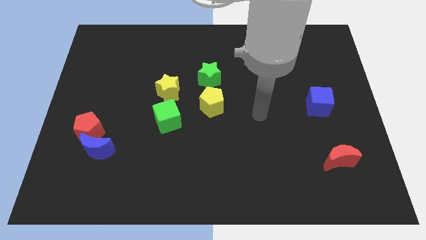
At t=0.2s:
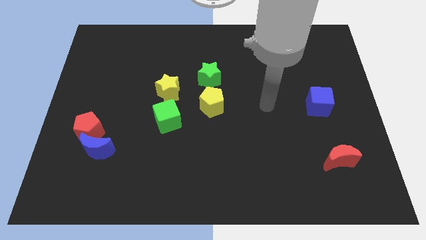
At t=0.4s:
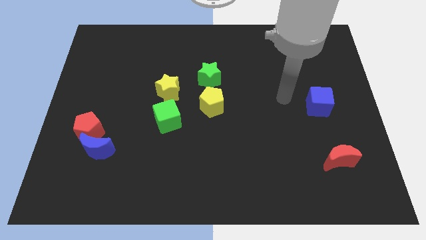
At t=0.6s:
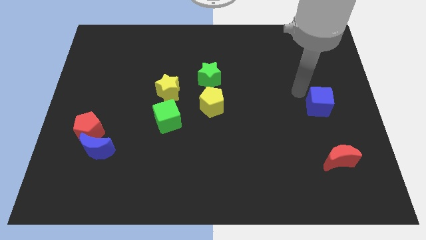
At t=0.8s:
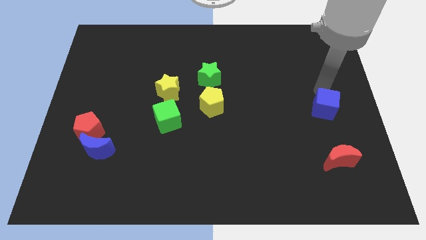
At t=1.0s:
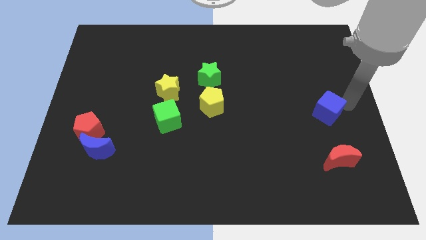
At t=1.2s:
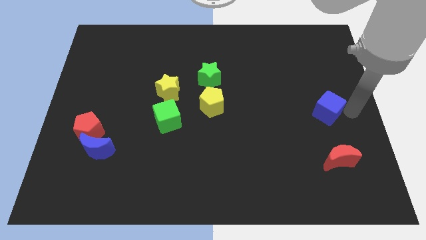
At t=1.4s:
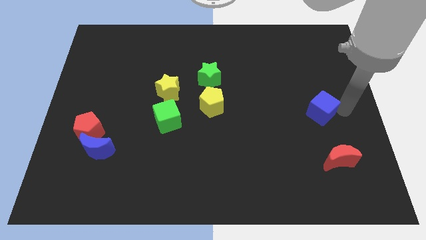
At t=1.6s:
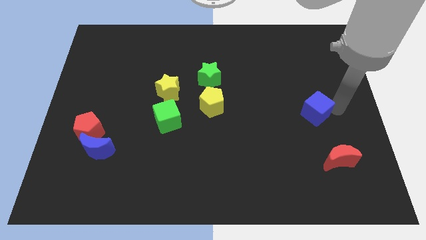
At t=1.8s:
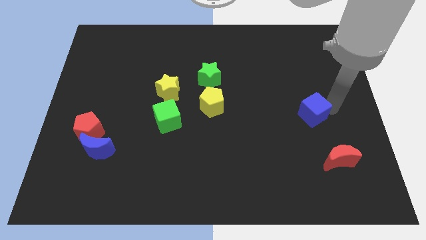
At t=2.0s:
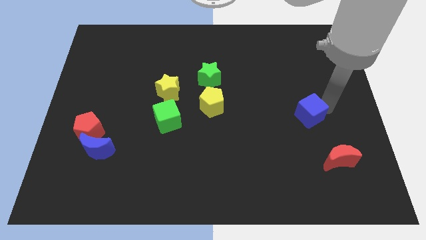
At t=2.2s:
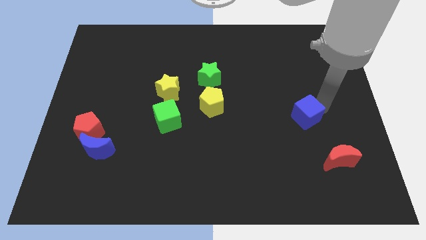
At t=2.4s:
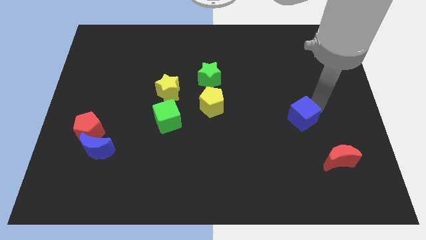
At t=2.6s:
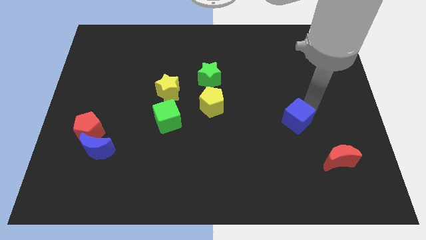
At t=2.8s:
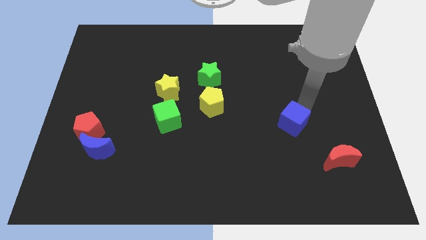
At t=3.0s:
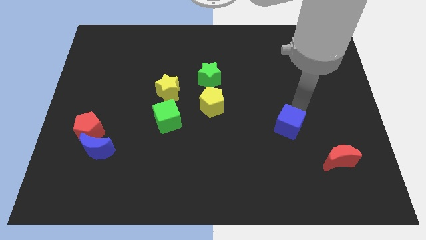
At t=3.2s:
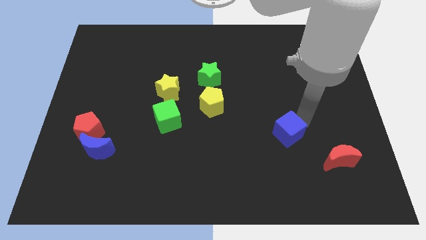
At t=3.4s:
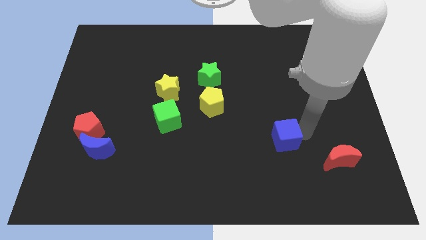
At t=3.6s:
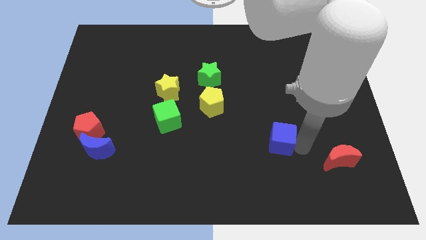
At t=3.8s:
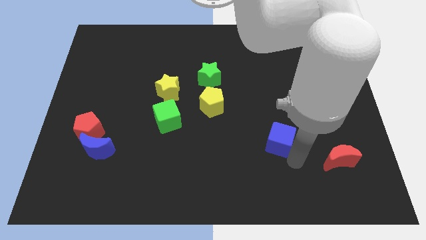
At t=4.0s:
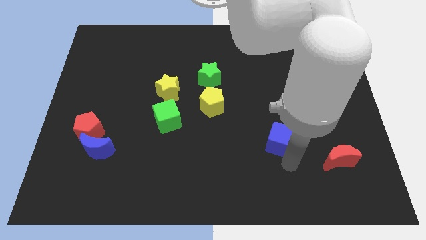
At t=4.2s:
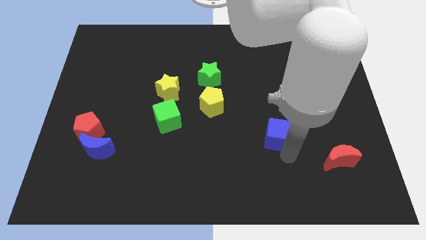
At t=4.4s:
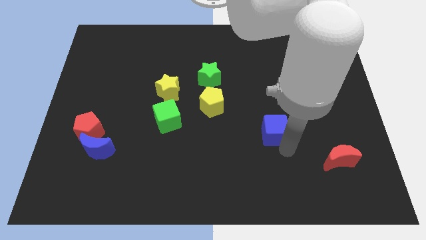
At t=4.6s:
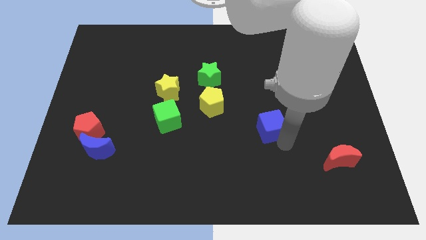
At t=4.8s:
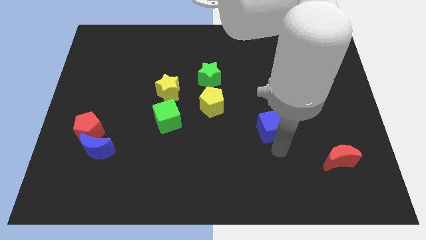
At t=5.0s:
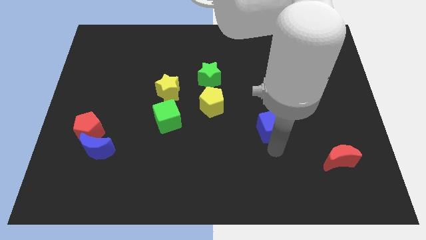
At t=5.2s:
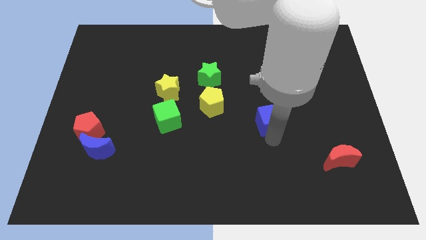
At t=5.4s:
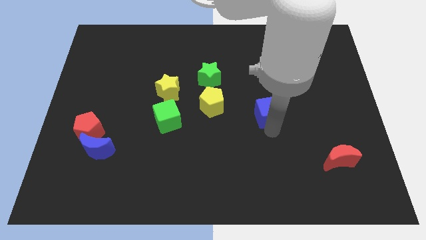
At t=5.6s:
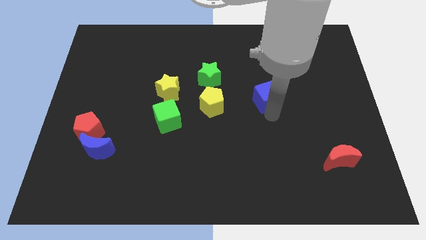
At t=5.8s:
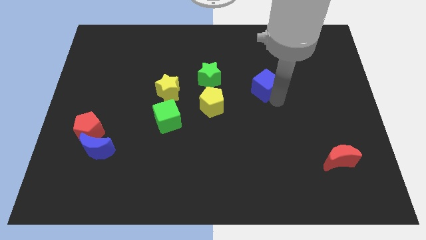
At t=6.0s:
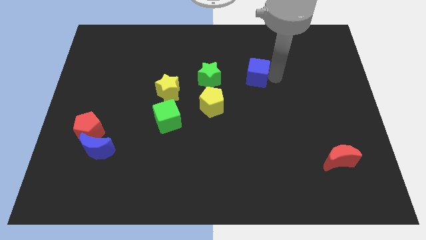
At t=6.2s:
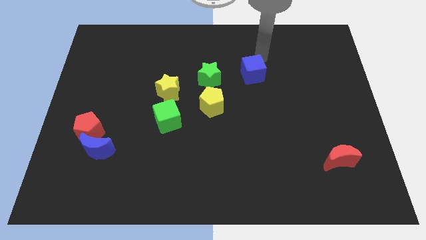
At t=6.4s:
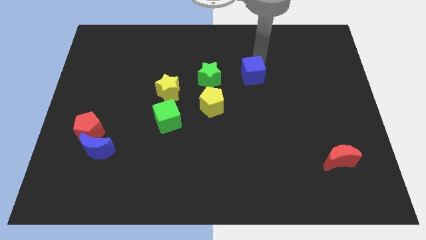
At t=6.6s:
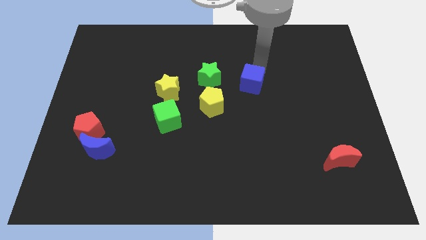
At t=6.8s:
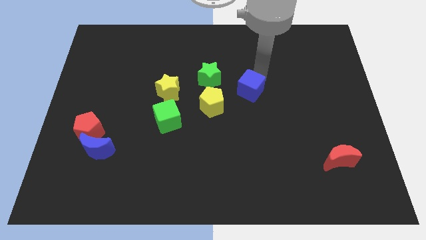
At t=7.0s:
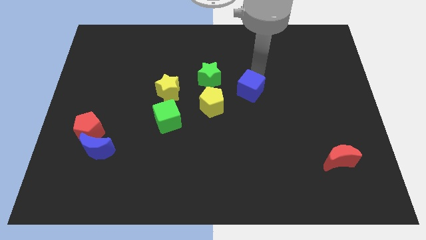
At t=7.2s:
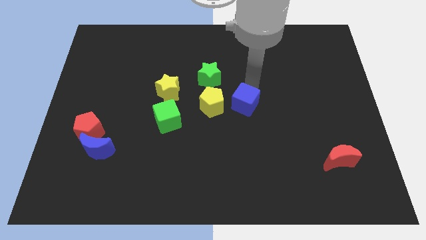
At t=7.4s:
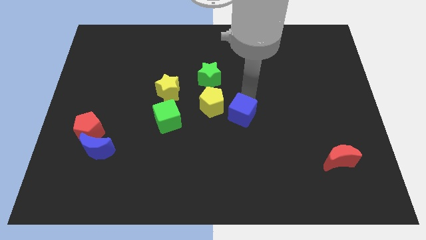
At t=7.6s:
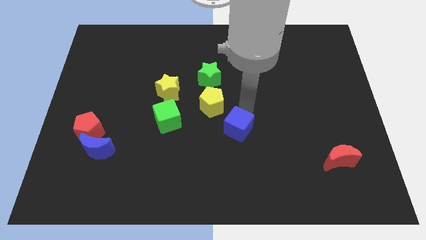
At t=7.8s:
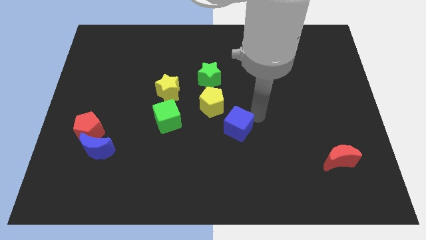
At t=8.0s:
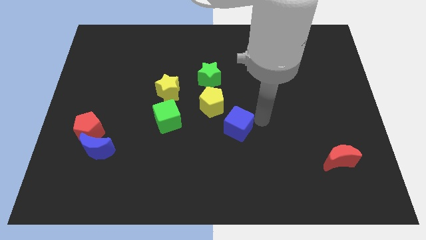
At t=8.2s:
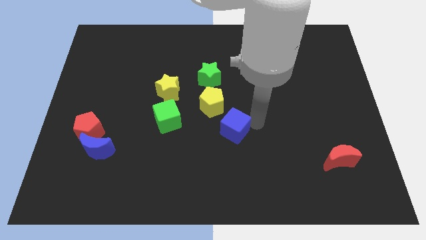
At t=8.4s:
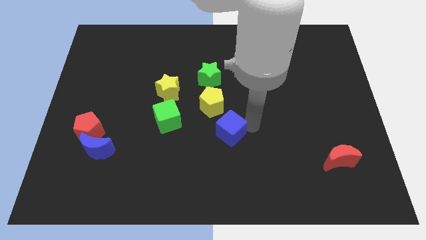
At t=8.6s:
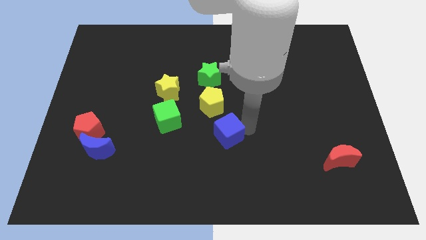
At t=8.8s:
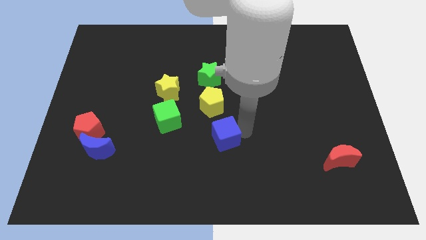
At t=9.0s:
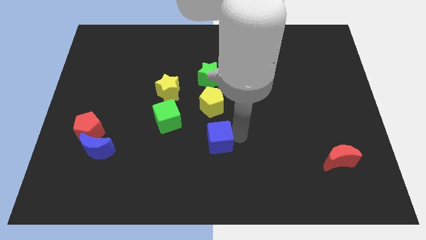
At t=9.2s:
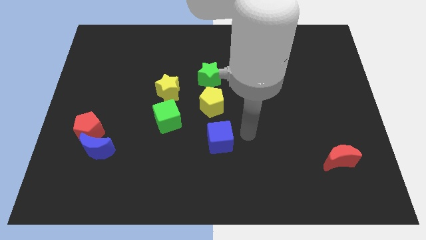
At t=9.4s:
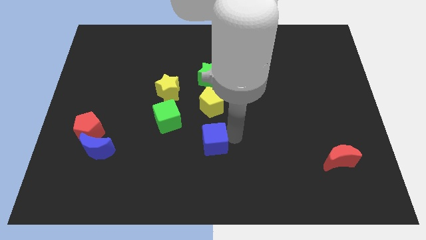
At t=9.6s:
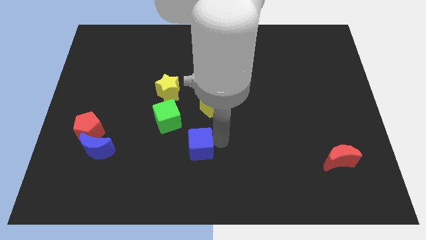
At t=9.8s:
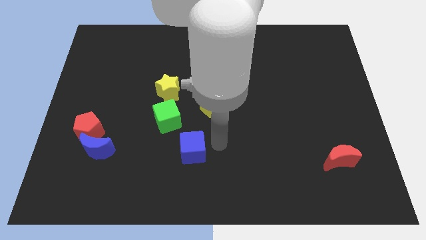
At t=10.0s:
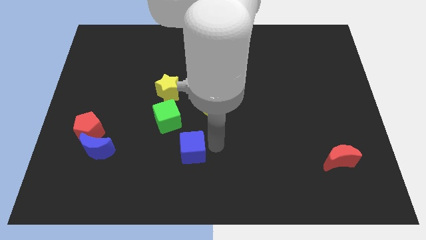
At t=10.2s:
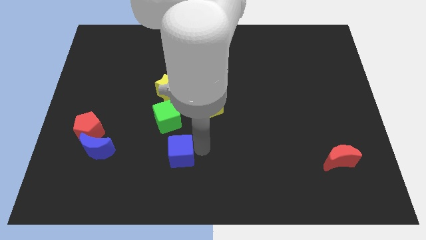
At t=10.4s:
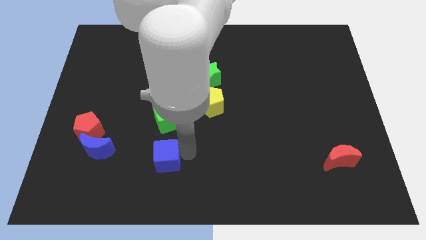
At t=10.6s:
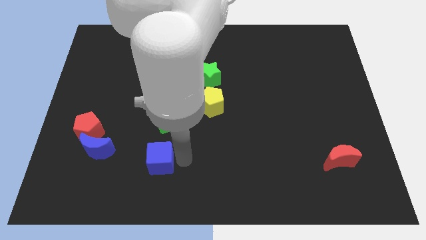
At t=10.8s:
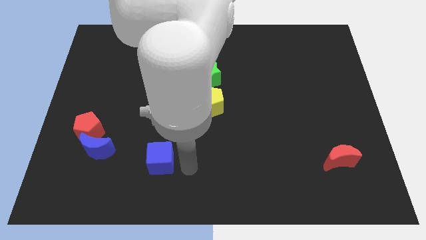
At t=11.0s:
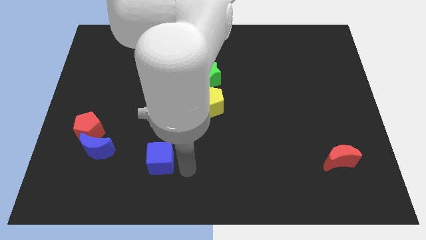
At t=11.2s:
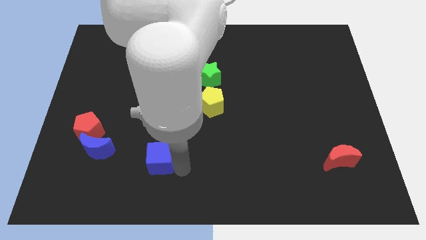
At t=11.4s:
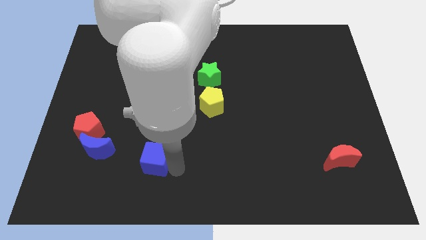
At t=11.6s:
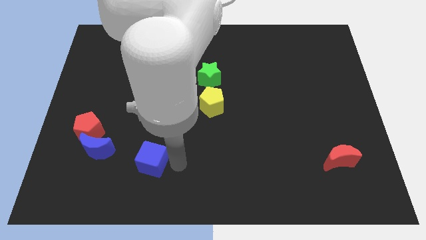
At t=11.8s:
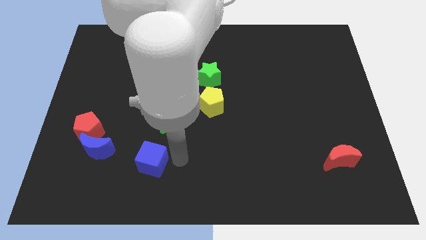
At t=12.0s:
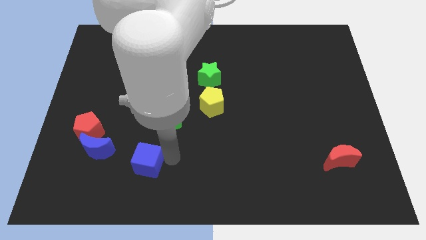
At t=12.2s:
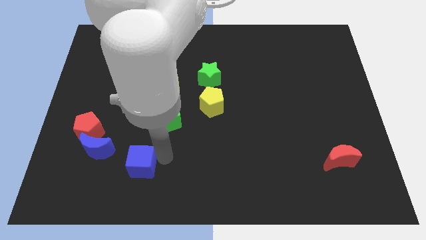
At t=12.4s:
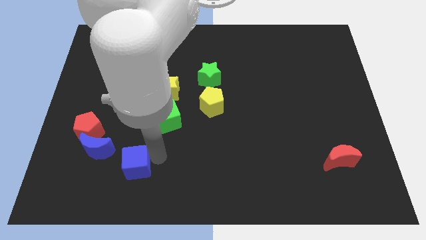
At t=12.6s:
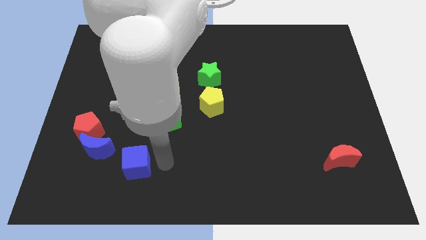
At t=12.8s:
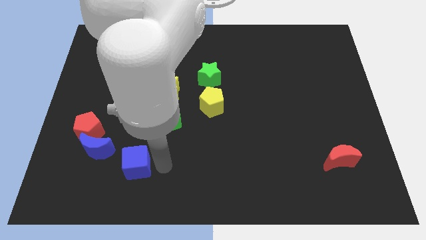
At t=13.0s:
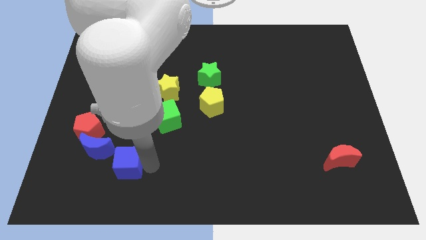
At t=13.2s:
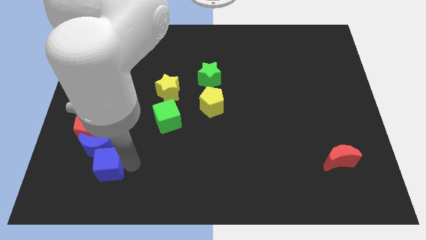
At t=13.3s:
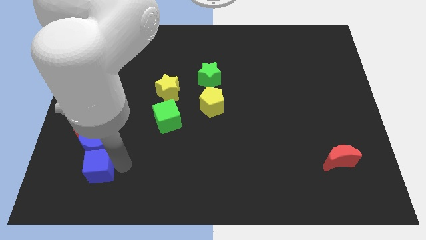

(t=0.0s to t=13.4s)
push the blue cube to the bottom side of the red pentagon
